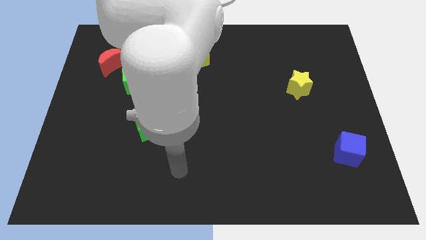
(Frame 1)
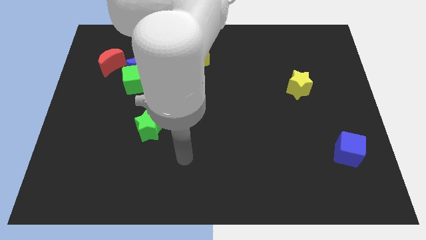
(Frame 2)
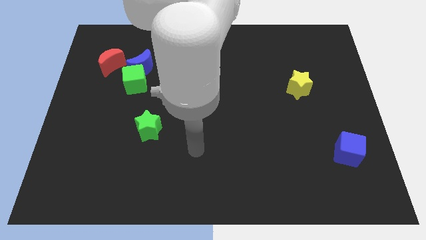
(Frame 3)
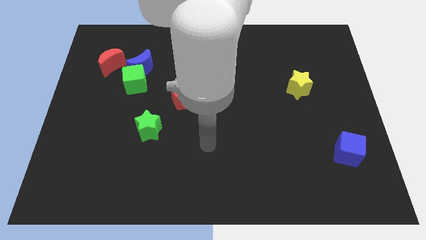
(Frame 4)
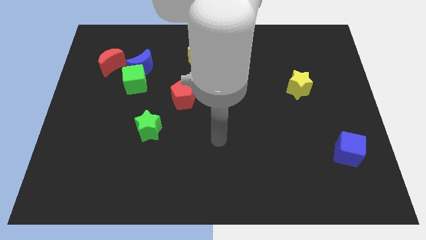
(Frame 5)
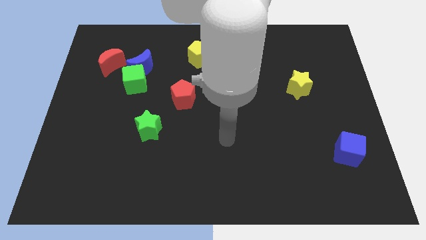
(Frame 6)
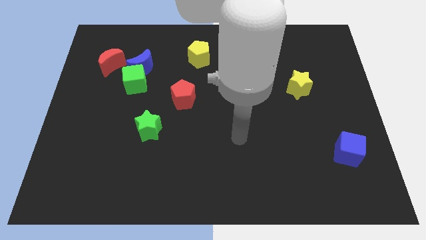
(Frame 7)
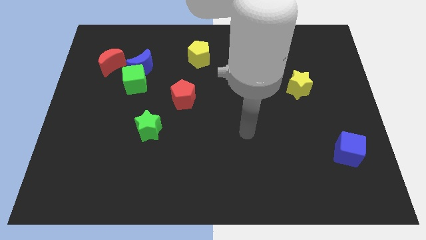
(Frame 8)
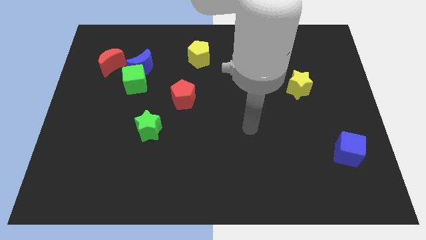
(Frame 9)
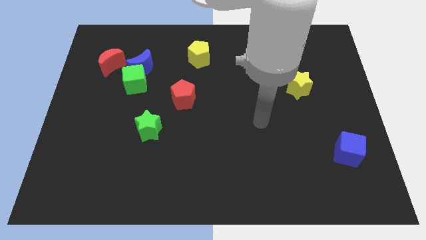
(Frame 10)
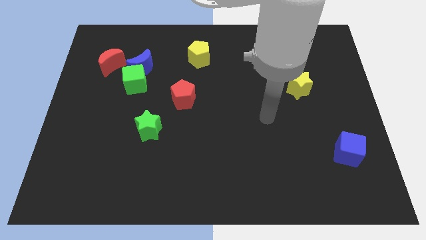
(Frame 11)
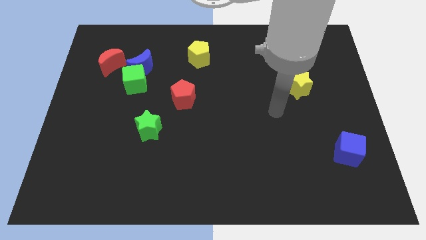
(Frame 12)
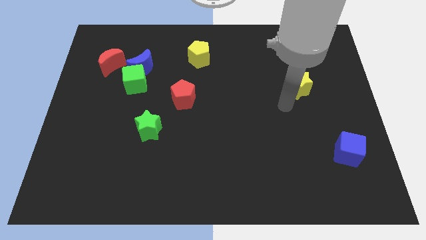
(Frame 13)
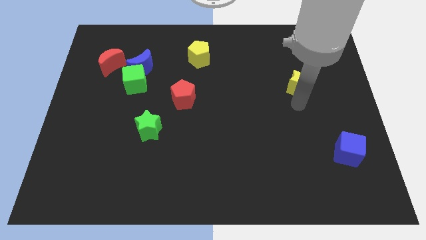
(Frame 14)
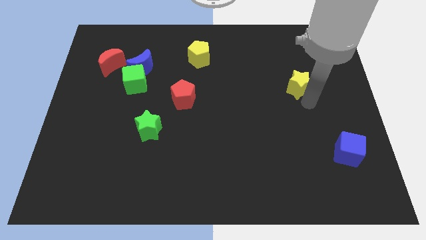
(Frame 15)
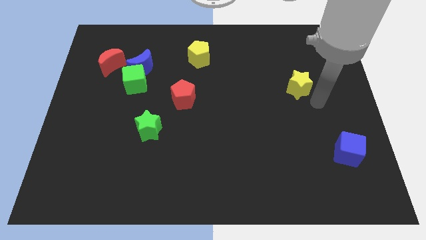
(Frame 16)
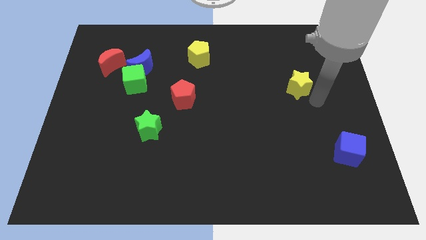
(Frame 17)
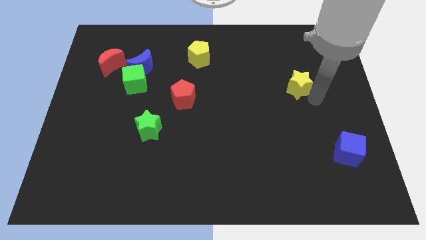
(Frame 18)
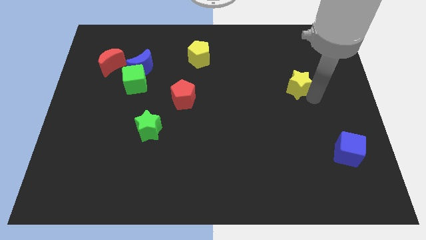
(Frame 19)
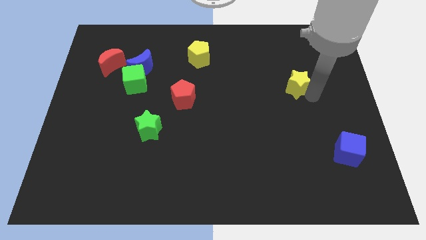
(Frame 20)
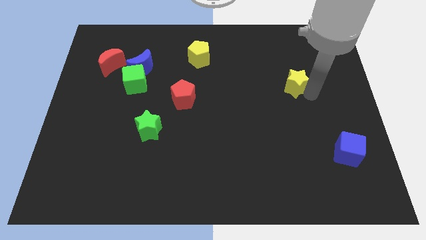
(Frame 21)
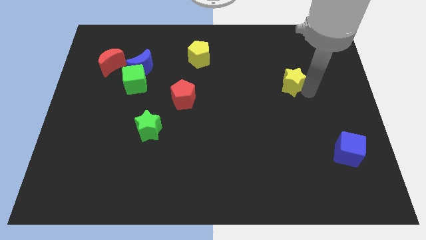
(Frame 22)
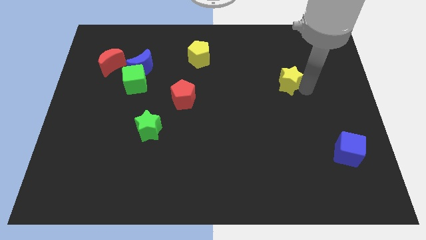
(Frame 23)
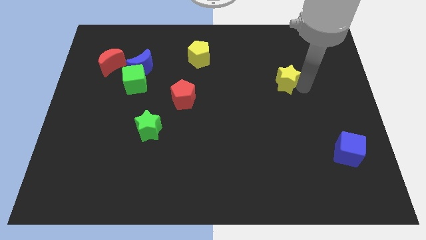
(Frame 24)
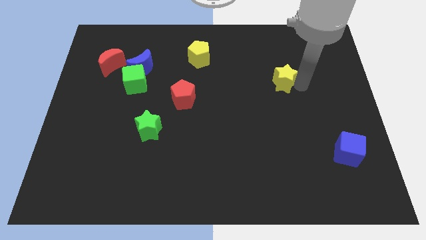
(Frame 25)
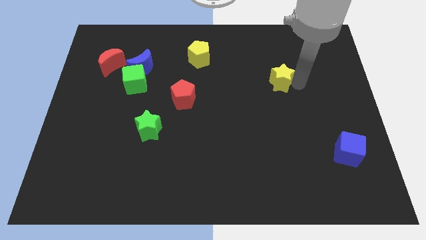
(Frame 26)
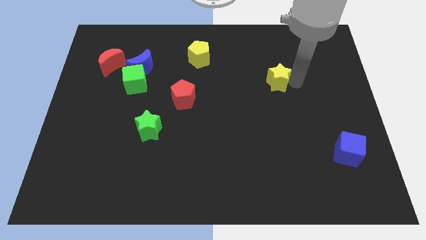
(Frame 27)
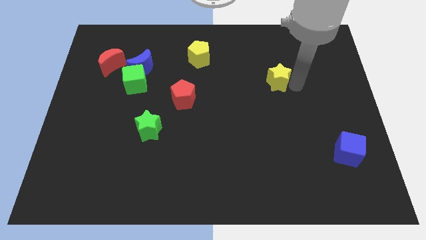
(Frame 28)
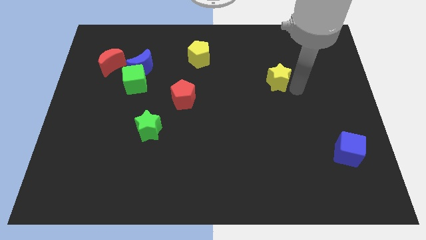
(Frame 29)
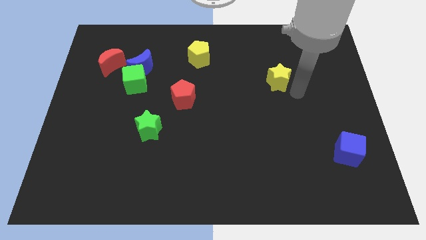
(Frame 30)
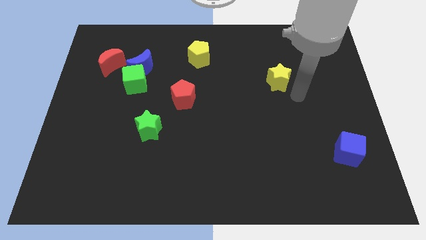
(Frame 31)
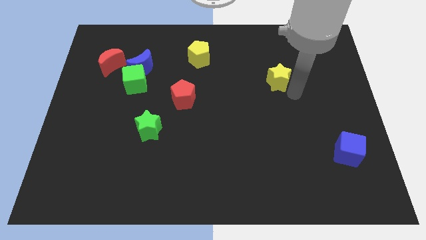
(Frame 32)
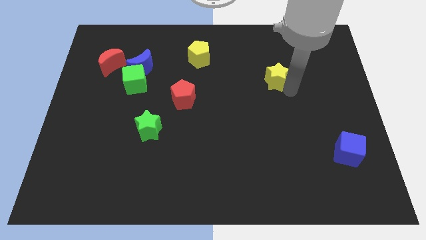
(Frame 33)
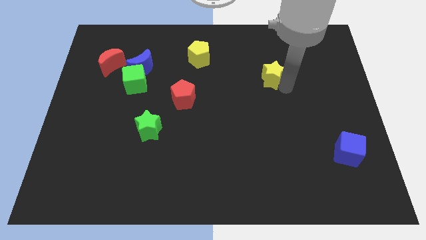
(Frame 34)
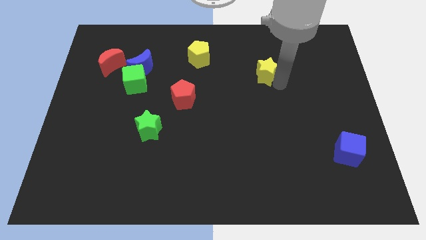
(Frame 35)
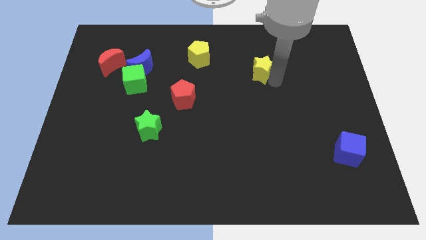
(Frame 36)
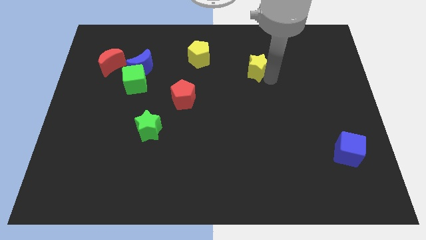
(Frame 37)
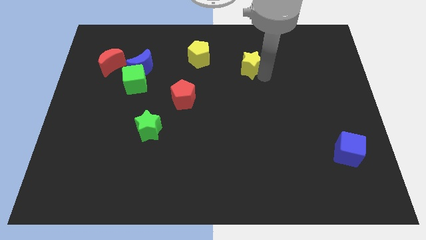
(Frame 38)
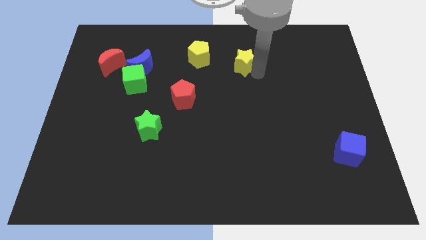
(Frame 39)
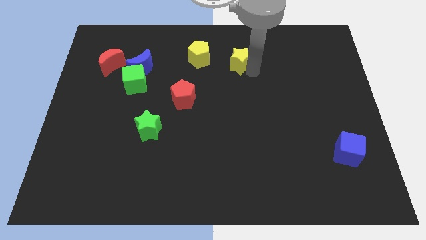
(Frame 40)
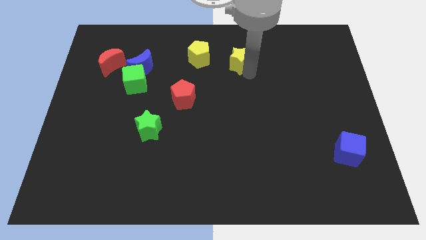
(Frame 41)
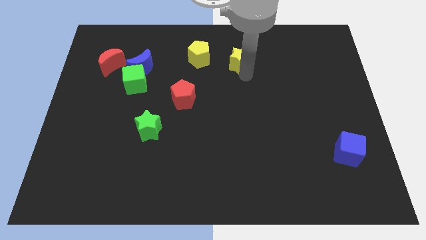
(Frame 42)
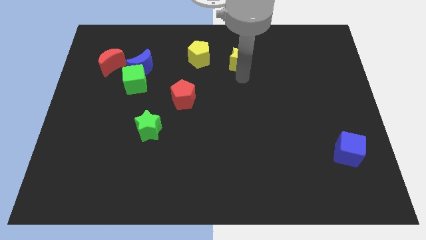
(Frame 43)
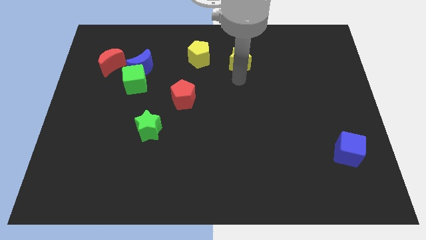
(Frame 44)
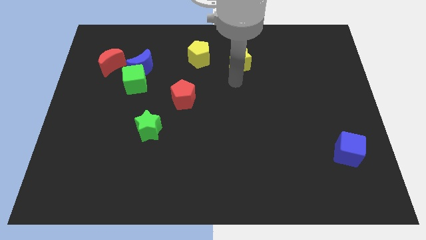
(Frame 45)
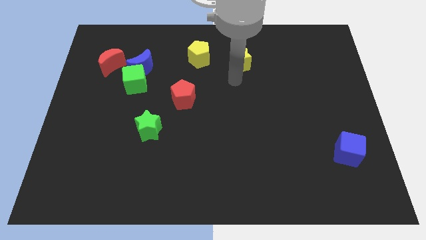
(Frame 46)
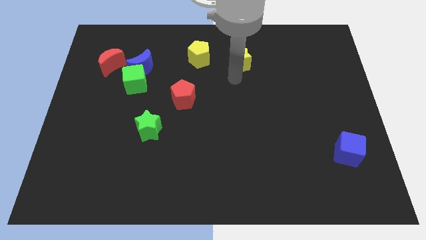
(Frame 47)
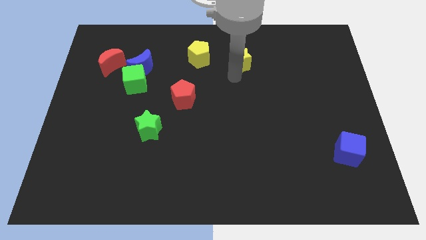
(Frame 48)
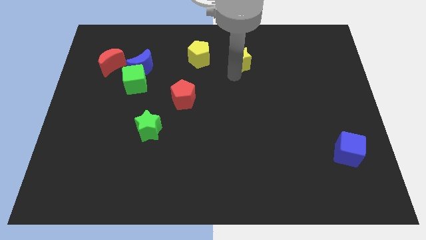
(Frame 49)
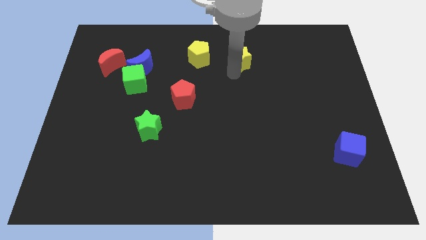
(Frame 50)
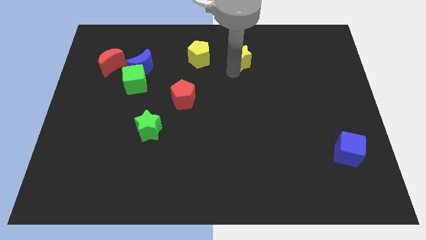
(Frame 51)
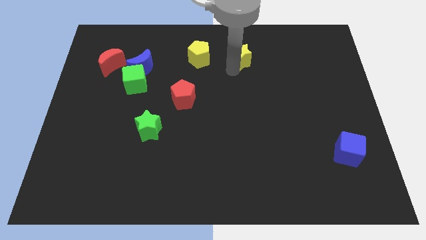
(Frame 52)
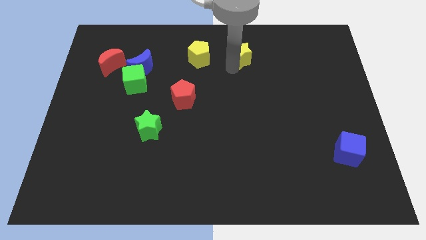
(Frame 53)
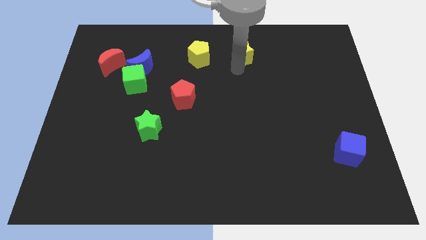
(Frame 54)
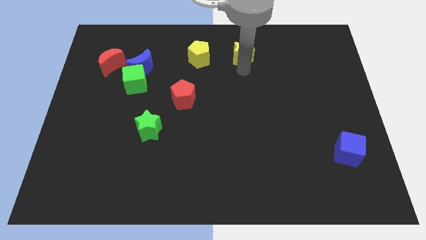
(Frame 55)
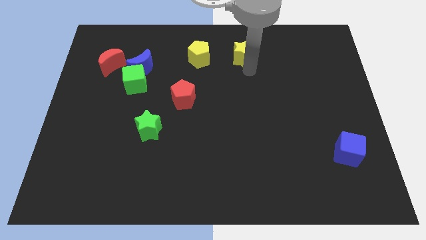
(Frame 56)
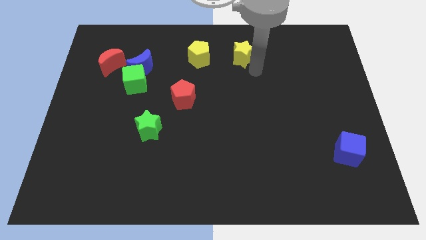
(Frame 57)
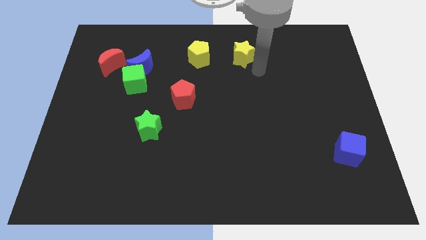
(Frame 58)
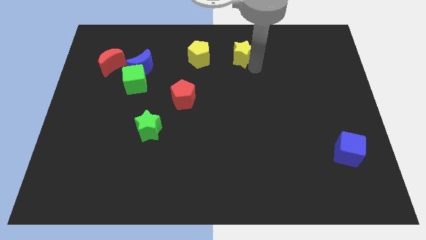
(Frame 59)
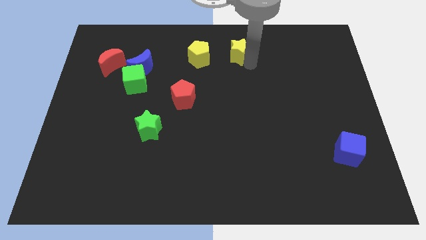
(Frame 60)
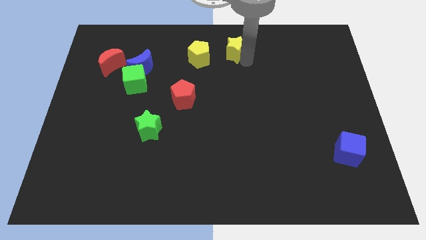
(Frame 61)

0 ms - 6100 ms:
put the yellow star to the towards your base
